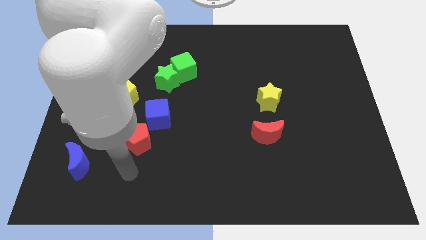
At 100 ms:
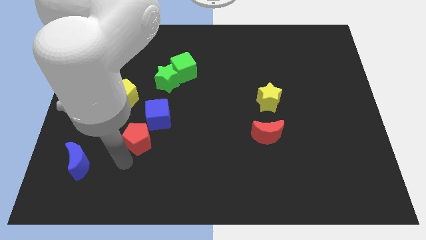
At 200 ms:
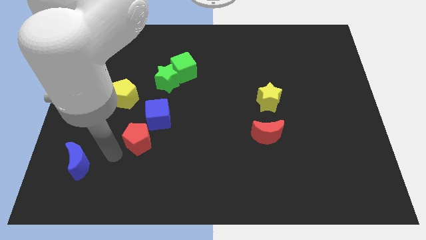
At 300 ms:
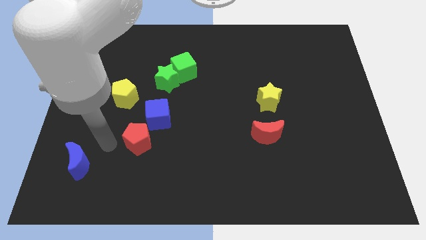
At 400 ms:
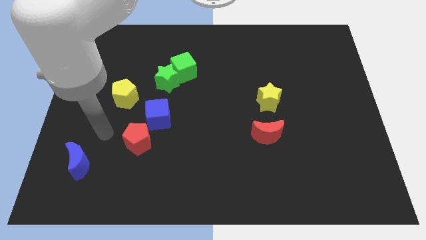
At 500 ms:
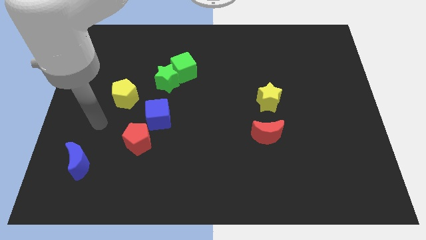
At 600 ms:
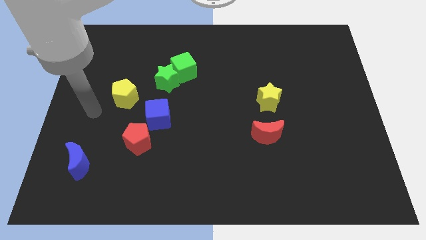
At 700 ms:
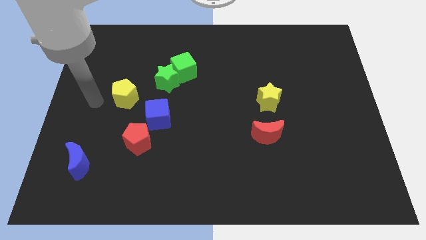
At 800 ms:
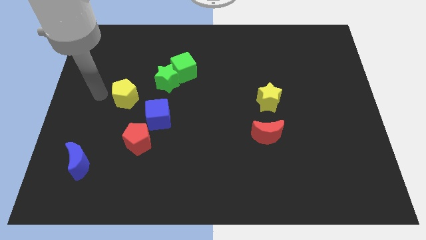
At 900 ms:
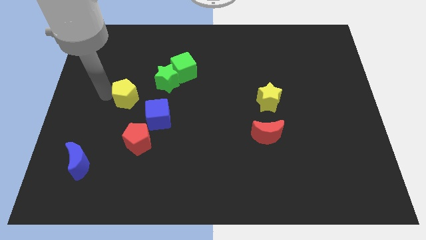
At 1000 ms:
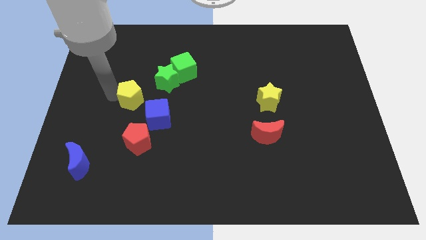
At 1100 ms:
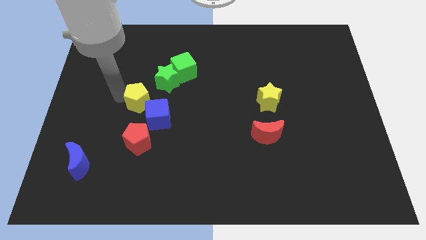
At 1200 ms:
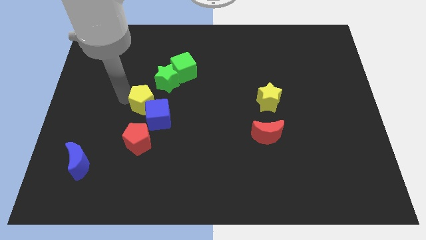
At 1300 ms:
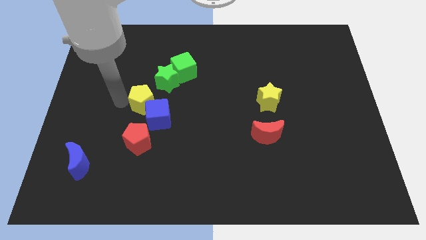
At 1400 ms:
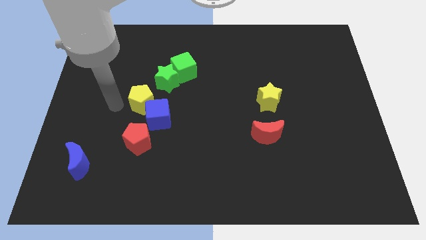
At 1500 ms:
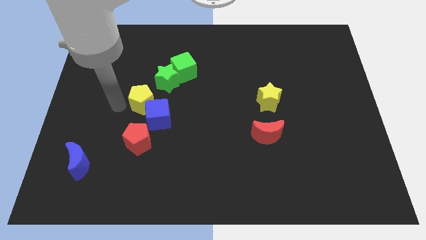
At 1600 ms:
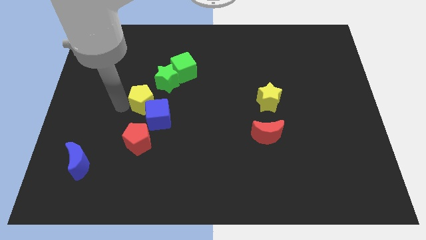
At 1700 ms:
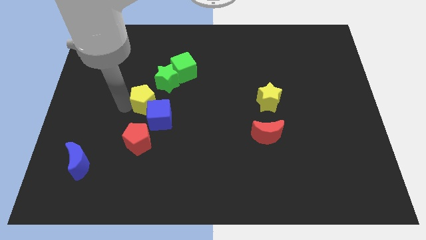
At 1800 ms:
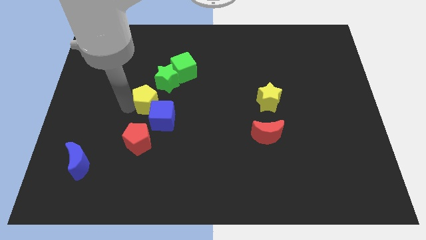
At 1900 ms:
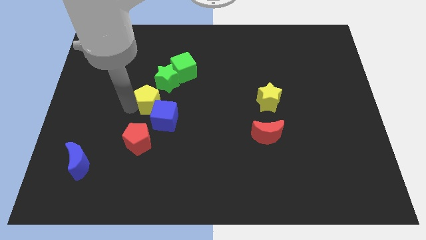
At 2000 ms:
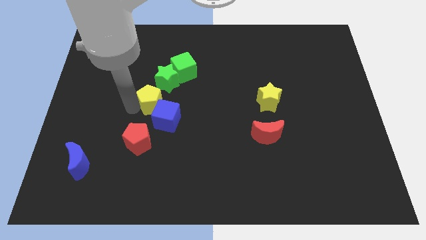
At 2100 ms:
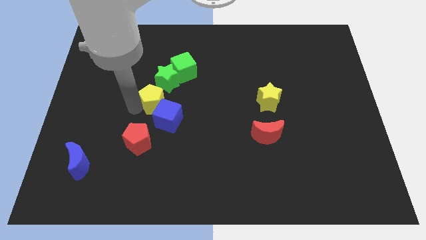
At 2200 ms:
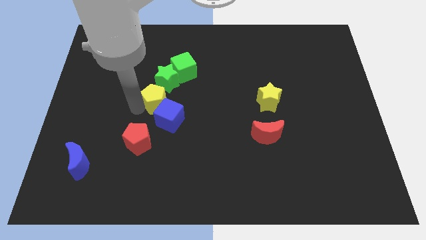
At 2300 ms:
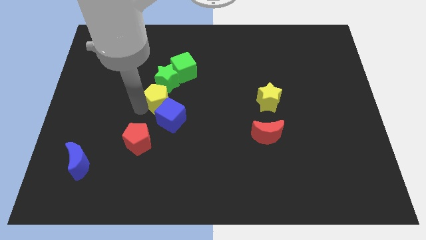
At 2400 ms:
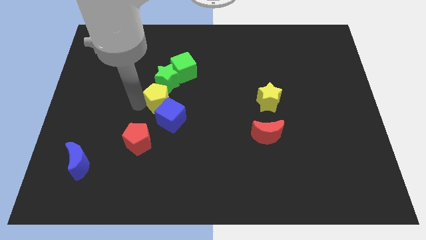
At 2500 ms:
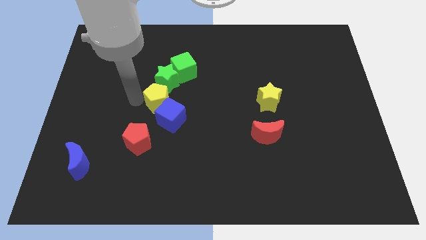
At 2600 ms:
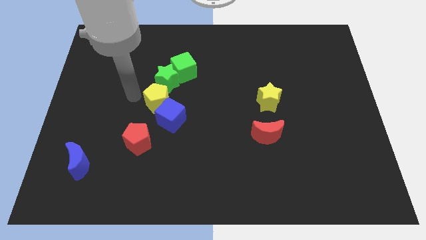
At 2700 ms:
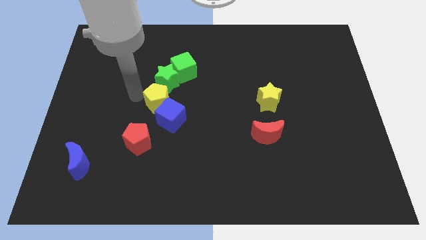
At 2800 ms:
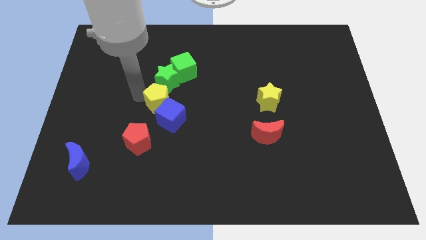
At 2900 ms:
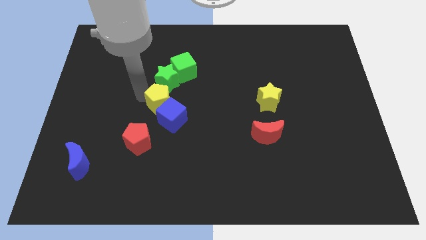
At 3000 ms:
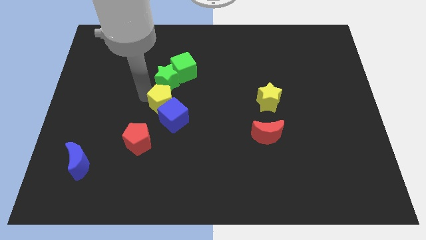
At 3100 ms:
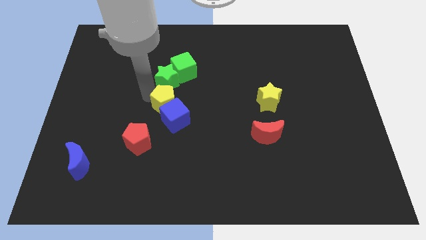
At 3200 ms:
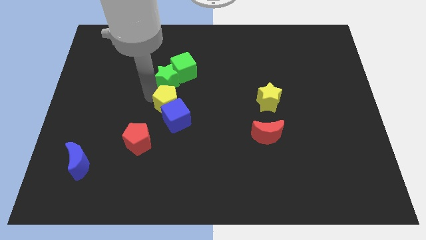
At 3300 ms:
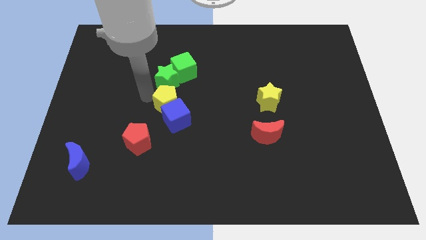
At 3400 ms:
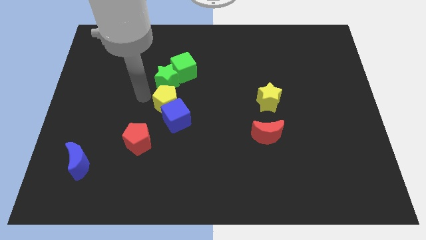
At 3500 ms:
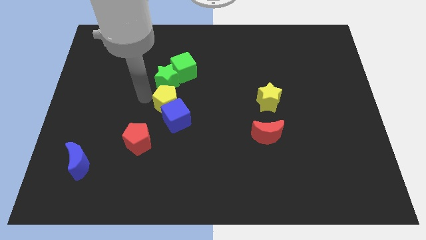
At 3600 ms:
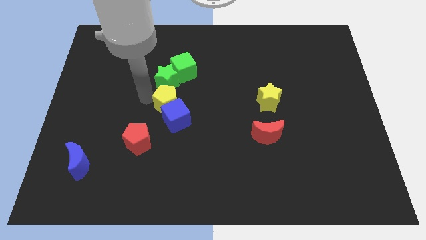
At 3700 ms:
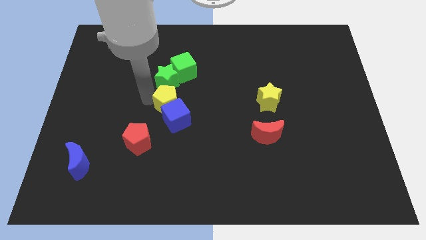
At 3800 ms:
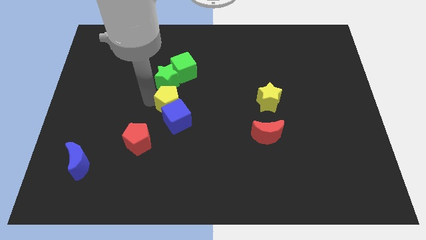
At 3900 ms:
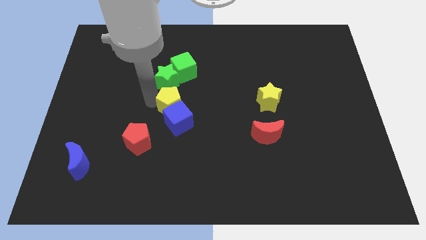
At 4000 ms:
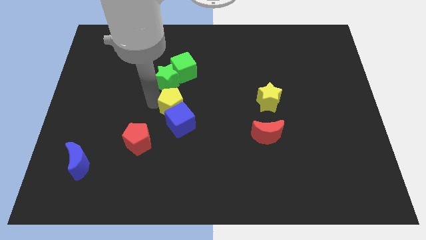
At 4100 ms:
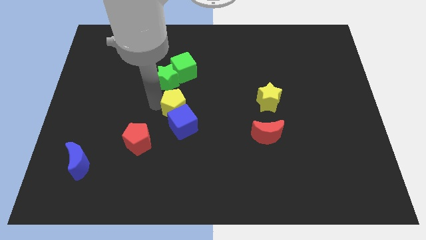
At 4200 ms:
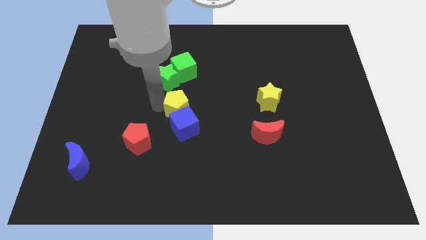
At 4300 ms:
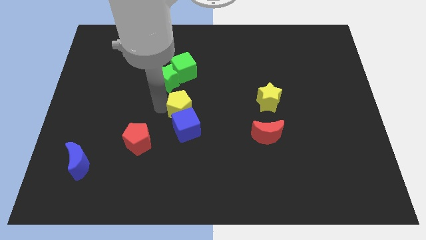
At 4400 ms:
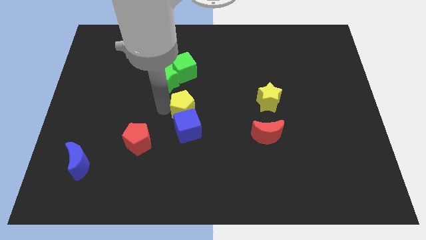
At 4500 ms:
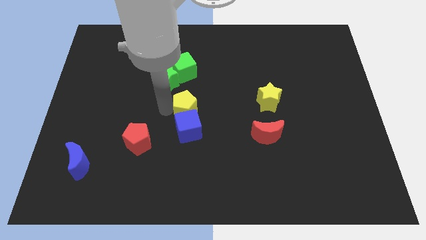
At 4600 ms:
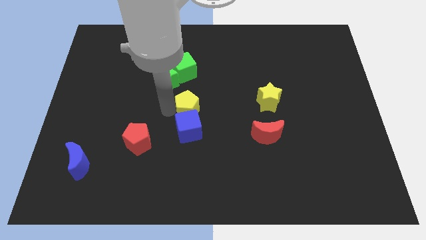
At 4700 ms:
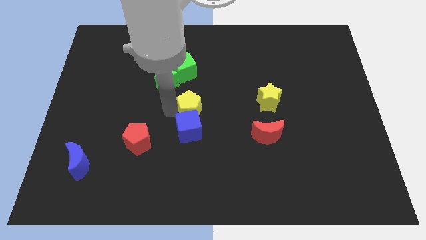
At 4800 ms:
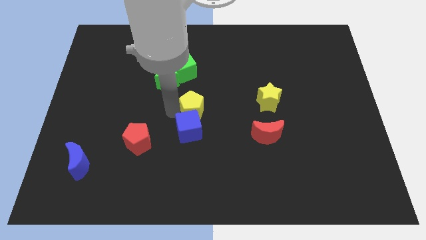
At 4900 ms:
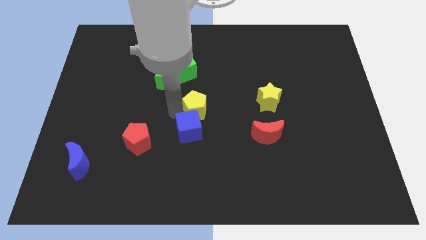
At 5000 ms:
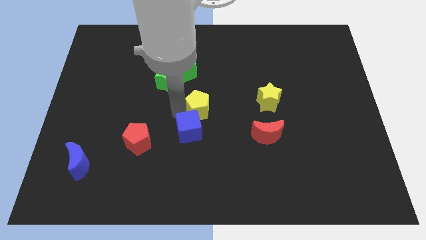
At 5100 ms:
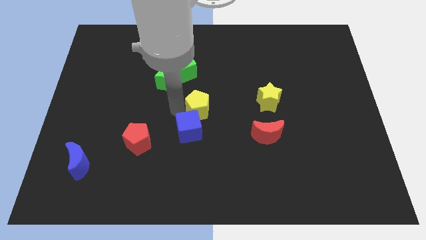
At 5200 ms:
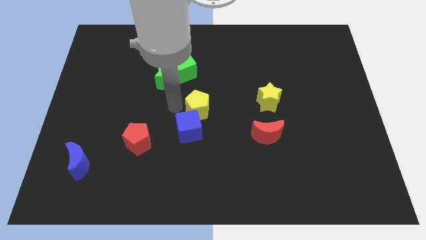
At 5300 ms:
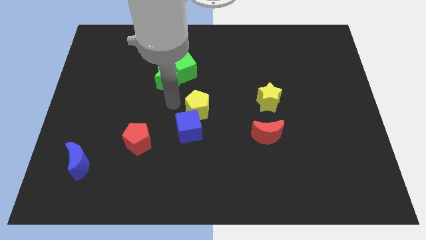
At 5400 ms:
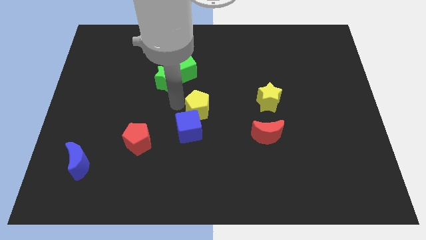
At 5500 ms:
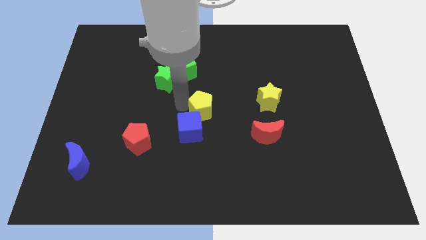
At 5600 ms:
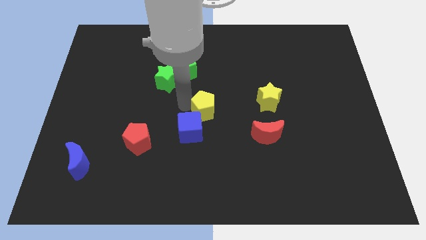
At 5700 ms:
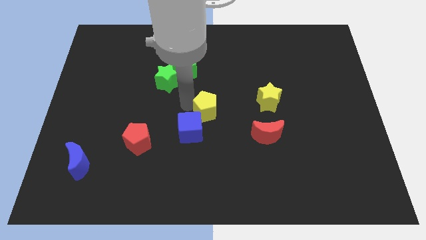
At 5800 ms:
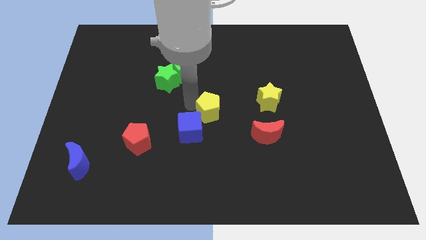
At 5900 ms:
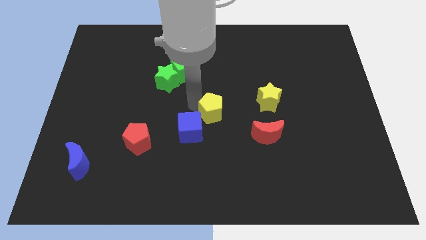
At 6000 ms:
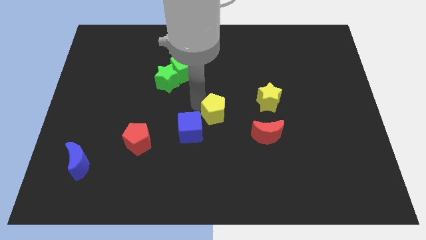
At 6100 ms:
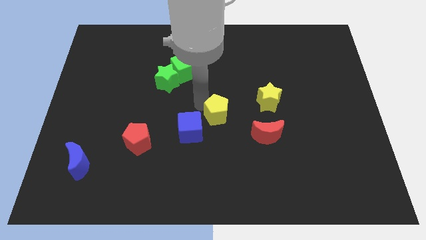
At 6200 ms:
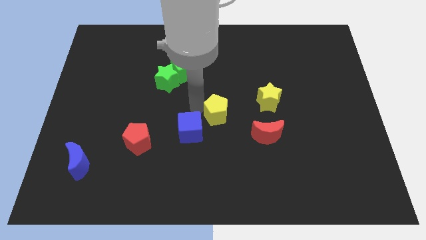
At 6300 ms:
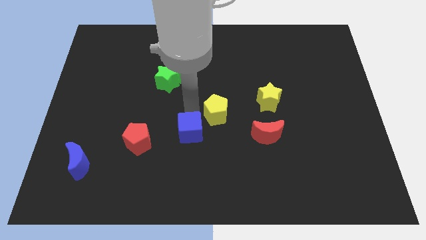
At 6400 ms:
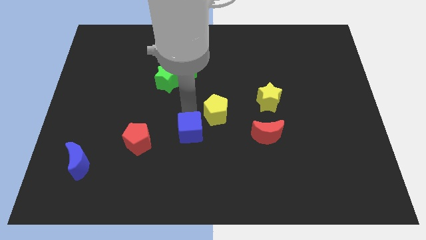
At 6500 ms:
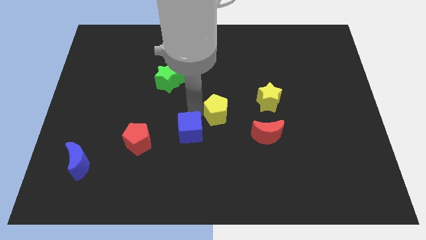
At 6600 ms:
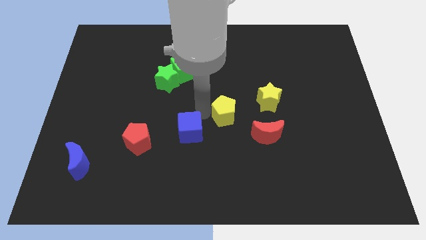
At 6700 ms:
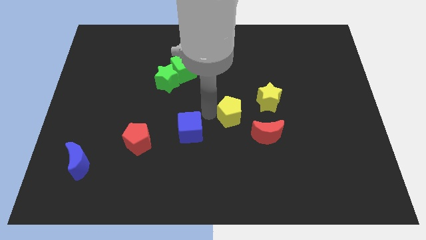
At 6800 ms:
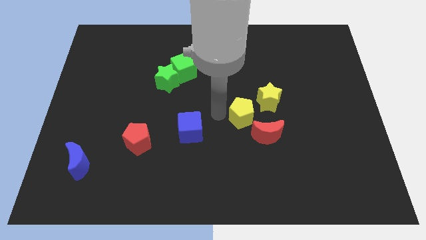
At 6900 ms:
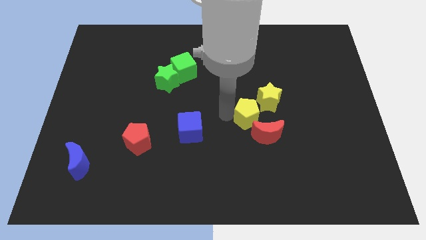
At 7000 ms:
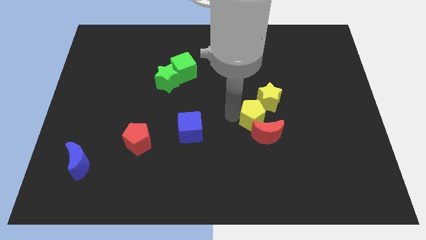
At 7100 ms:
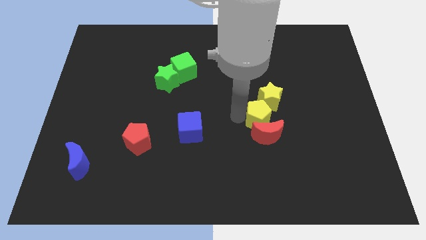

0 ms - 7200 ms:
move the yellow pentagon diagonally up and to the right of the red moon
